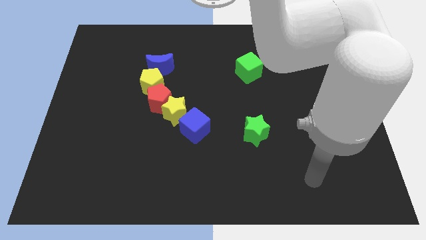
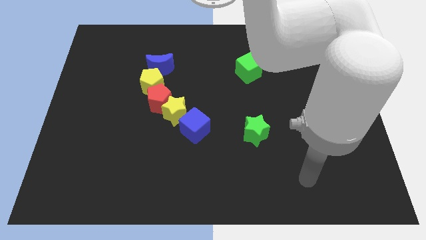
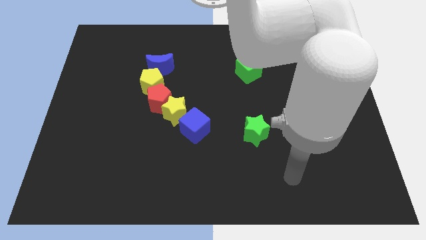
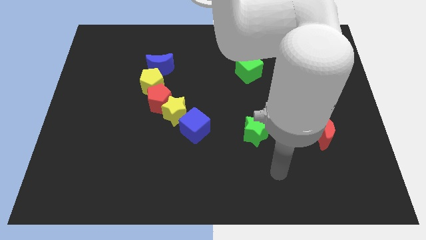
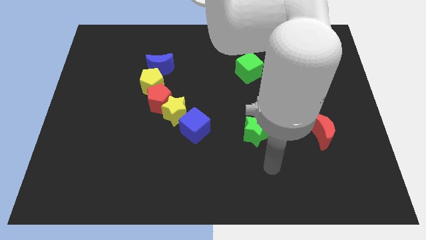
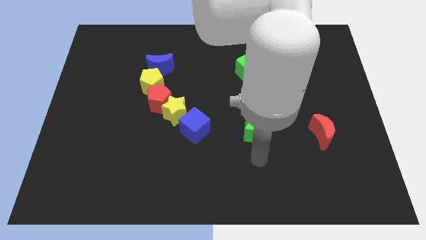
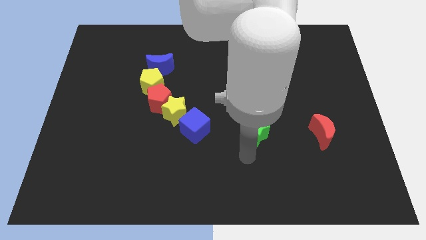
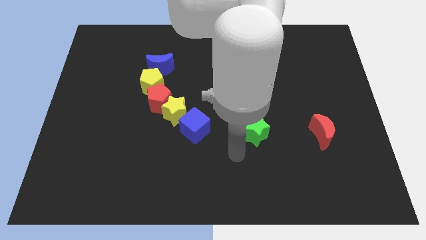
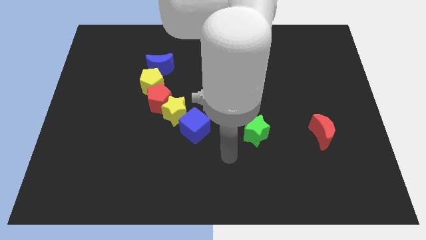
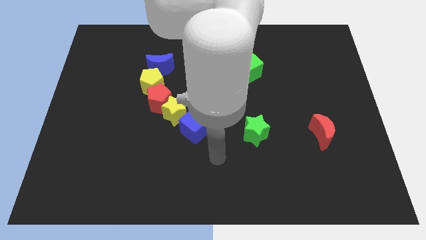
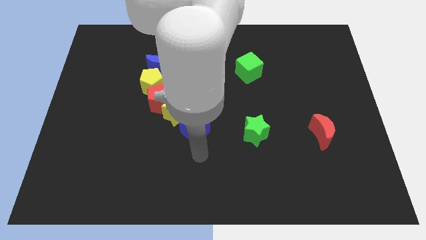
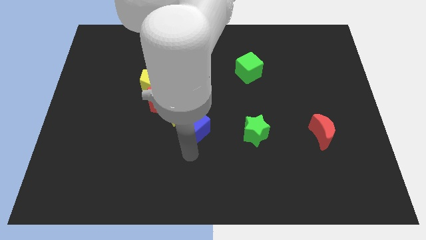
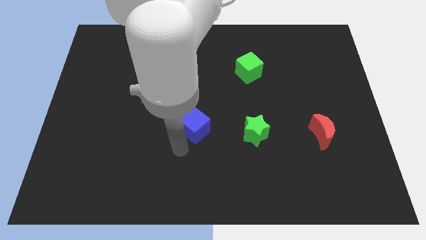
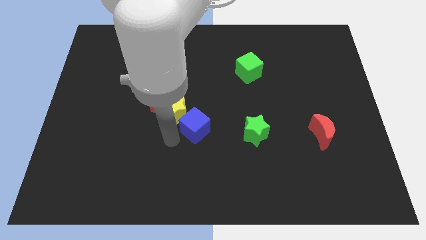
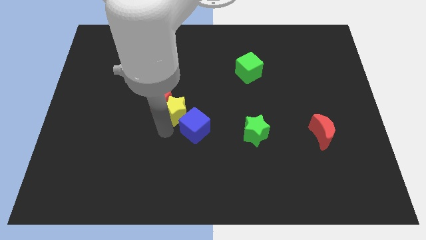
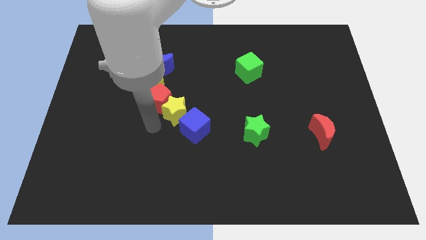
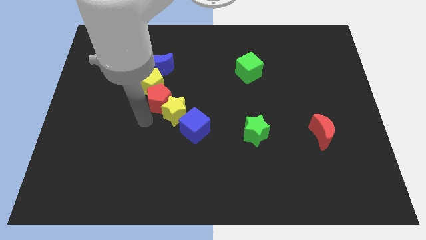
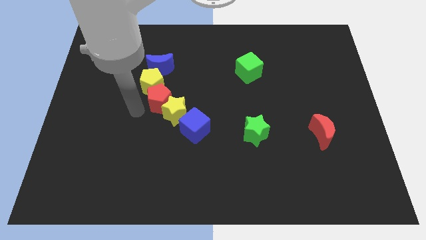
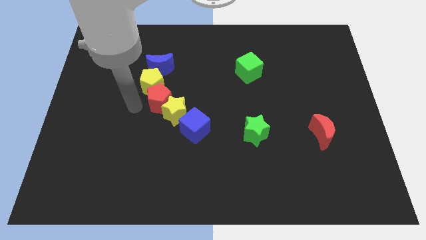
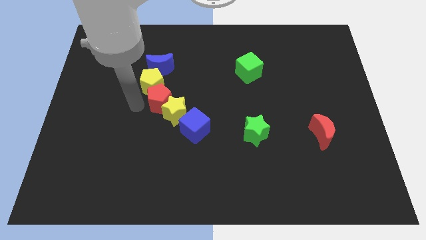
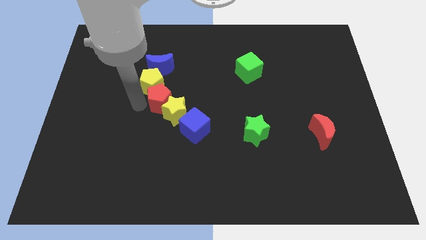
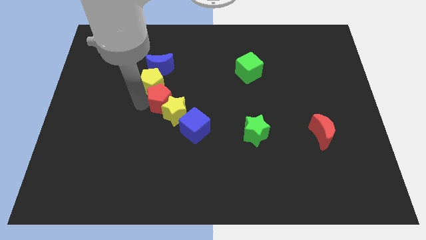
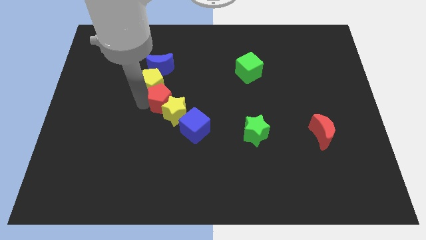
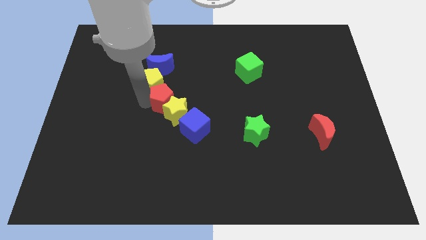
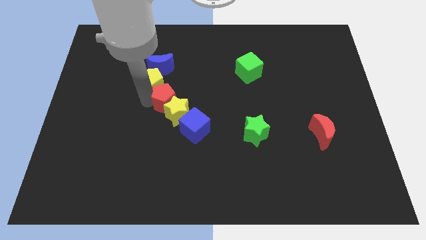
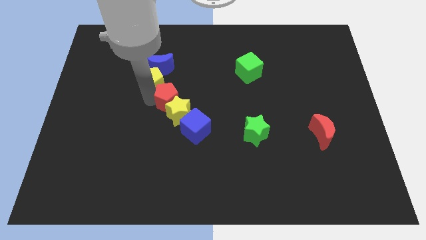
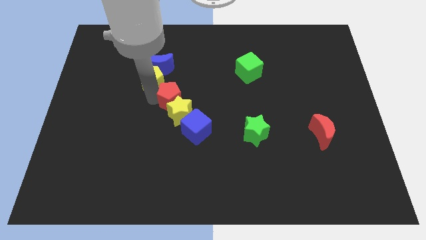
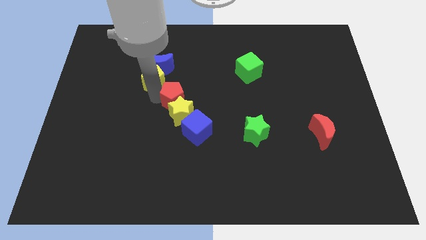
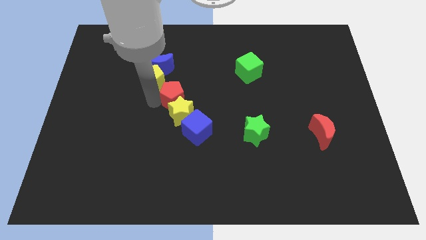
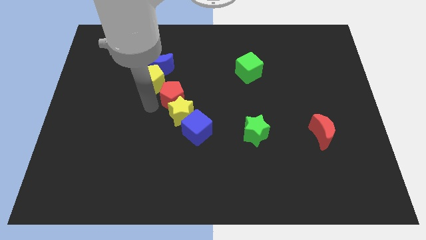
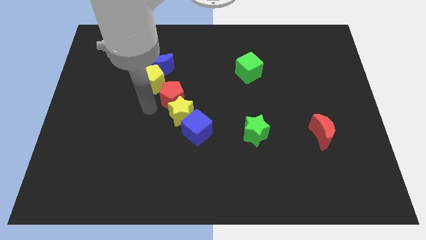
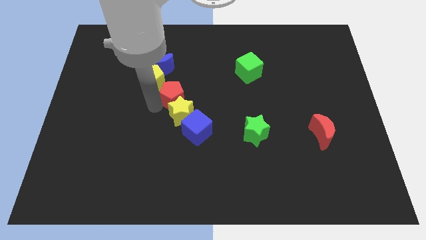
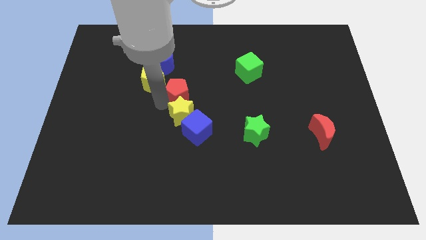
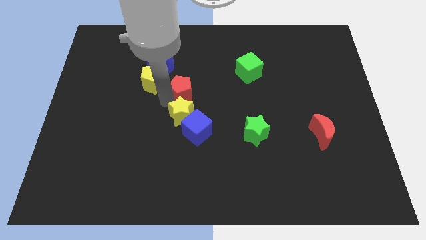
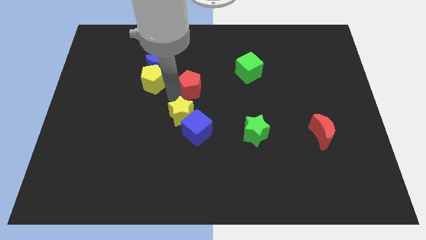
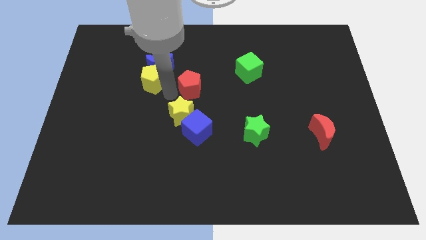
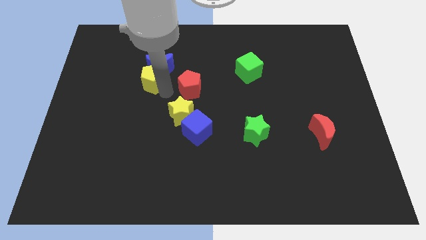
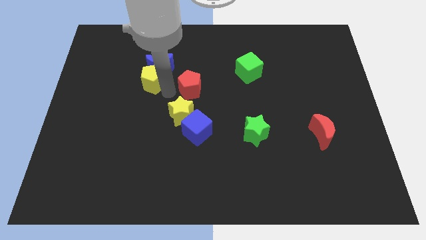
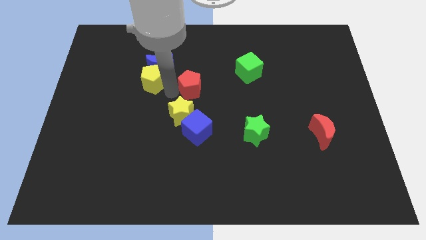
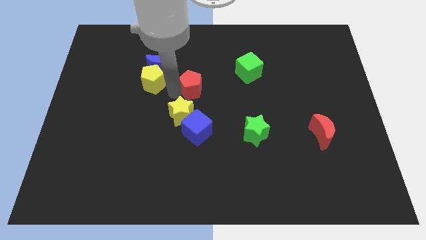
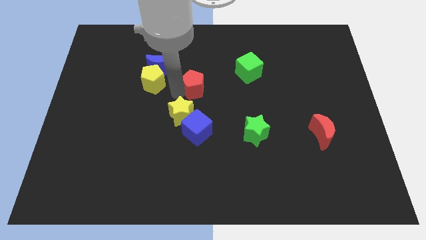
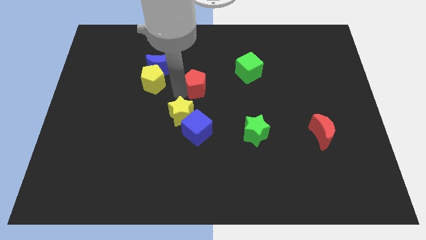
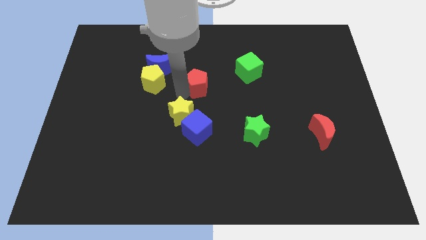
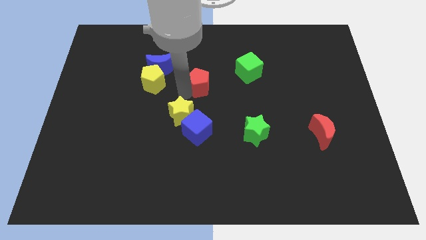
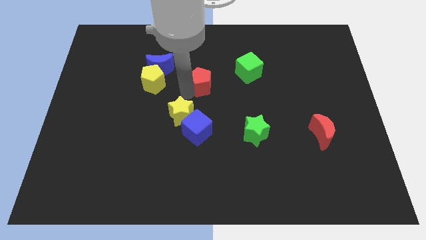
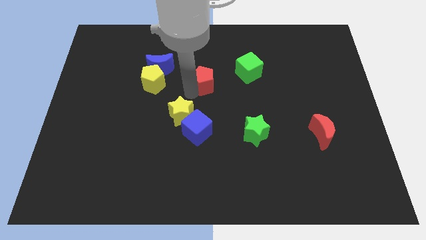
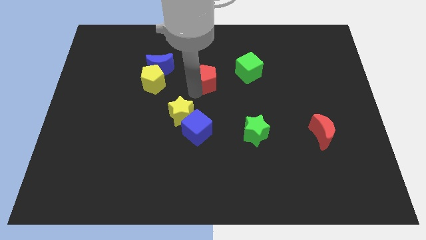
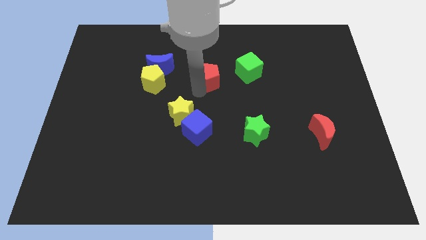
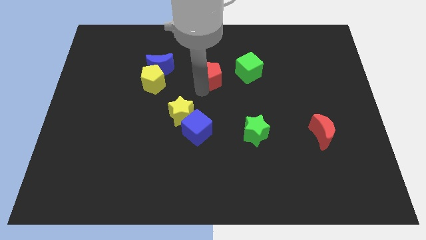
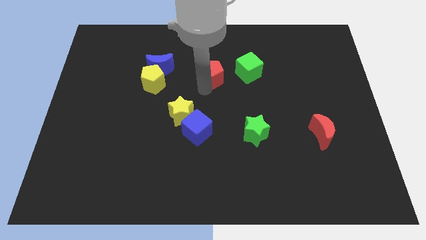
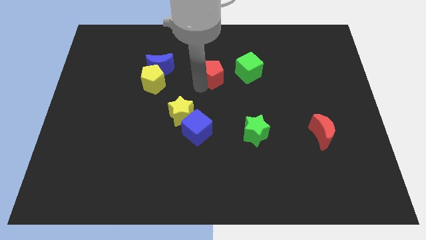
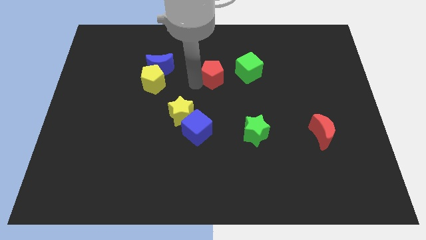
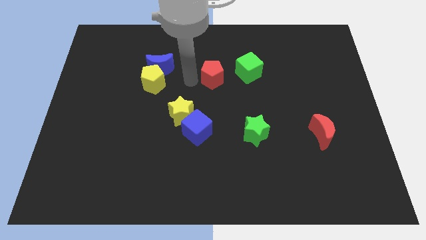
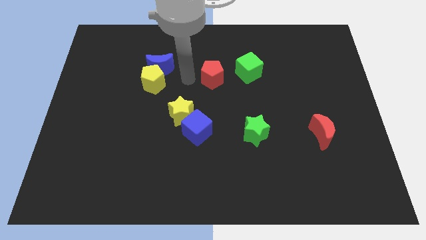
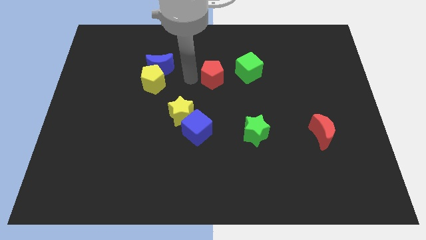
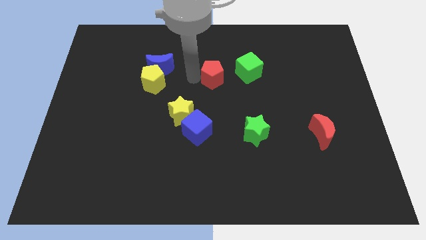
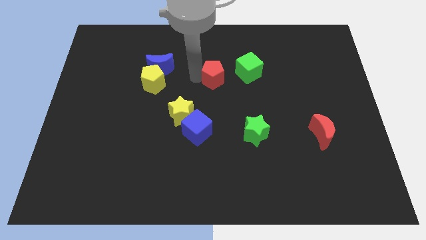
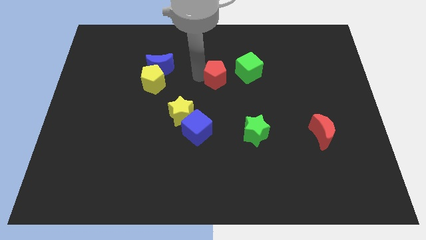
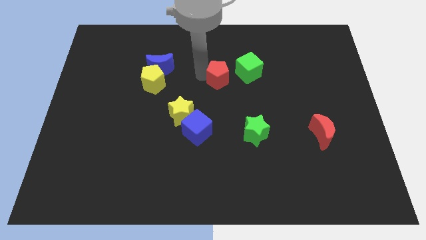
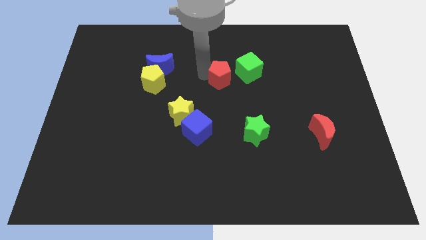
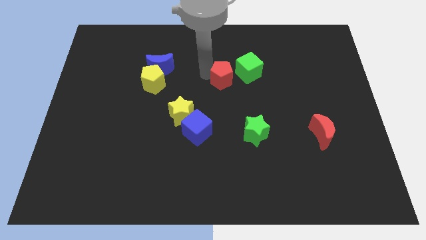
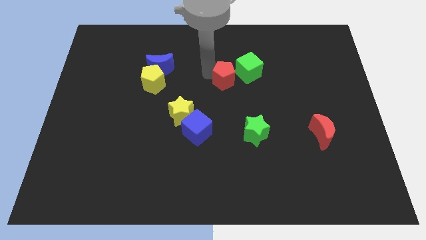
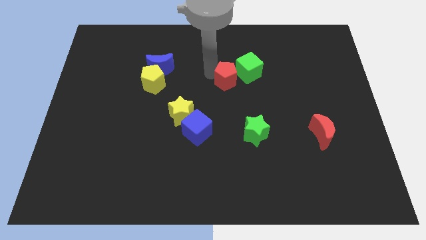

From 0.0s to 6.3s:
put the red pentagon to the green cube
